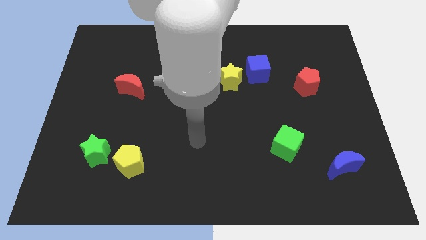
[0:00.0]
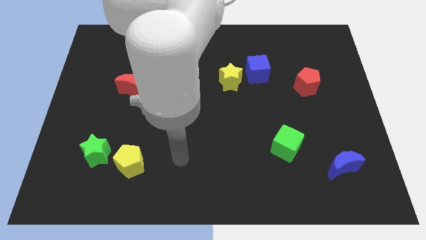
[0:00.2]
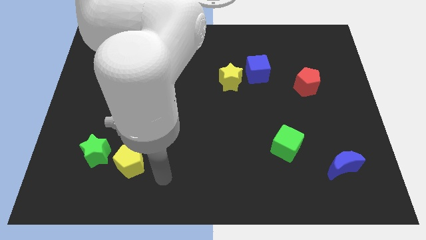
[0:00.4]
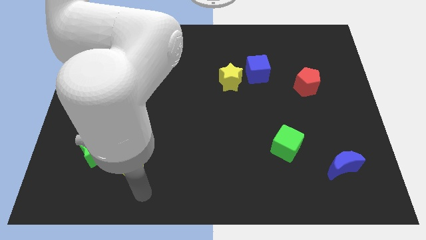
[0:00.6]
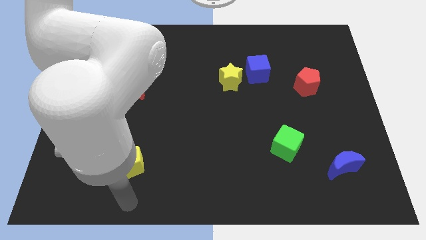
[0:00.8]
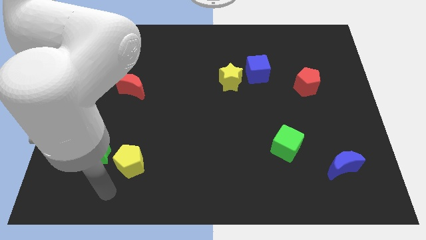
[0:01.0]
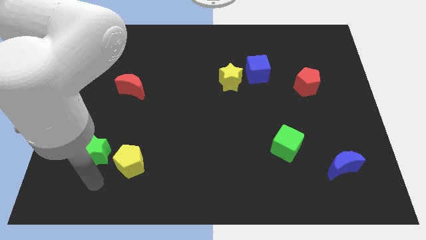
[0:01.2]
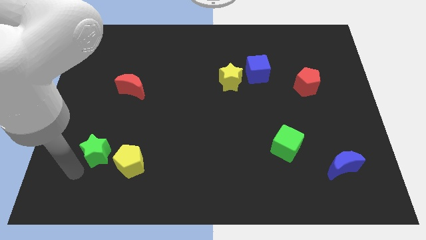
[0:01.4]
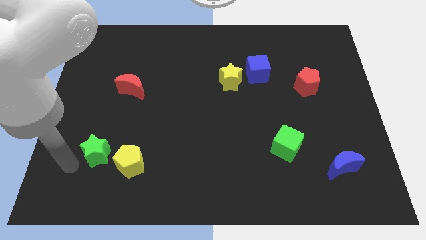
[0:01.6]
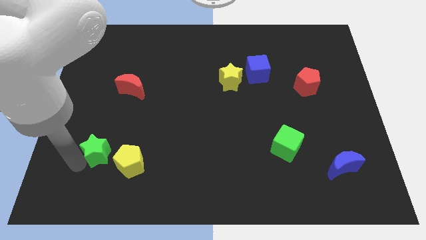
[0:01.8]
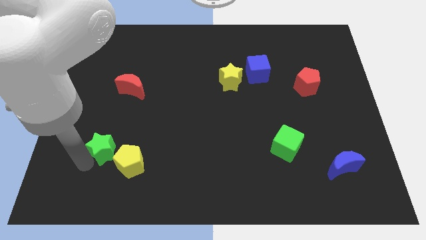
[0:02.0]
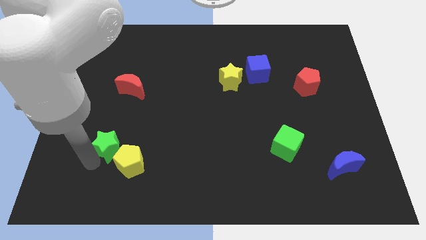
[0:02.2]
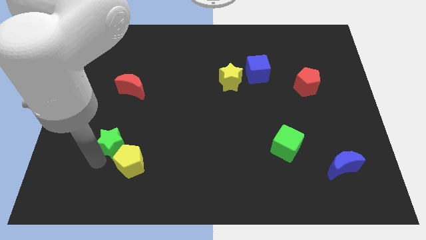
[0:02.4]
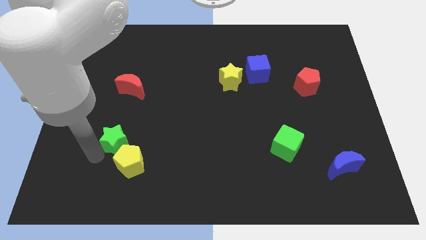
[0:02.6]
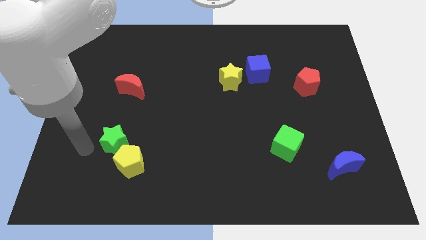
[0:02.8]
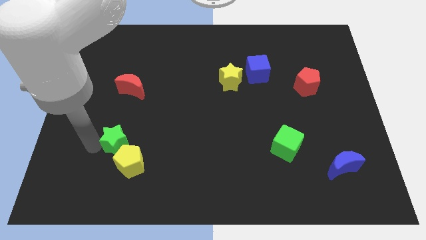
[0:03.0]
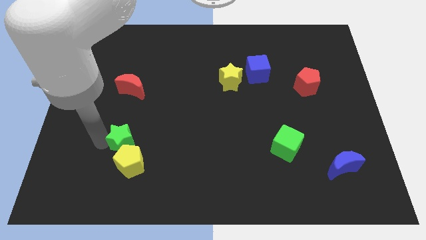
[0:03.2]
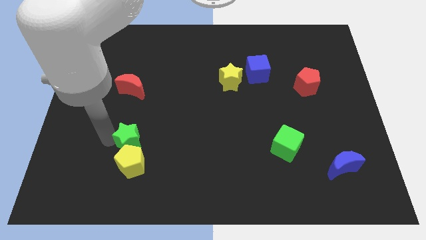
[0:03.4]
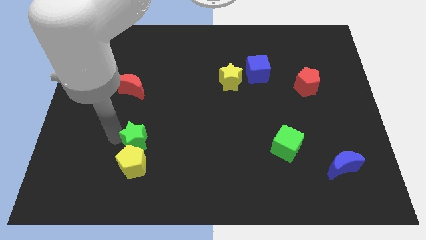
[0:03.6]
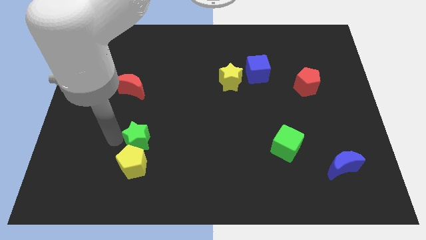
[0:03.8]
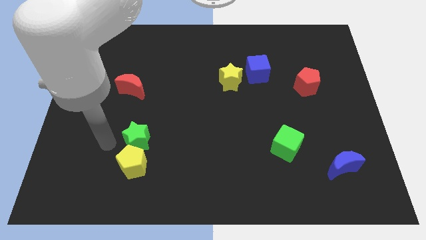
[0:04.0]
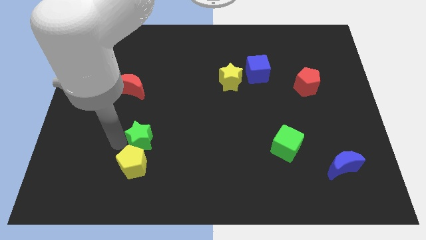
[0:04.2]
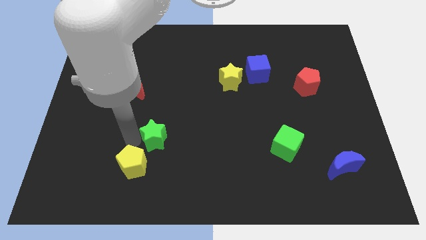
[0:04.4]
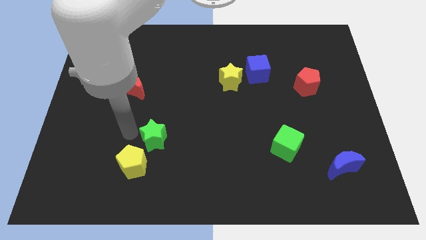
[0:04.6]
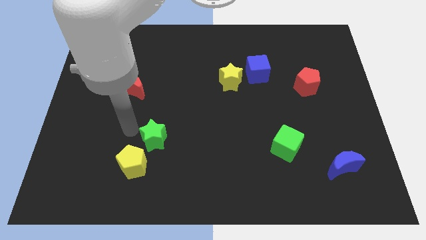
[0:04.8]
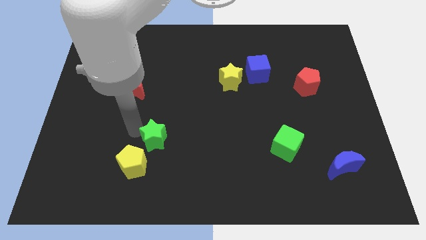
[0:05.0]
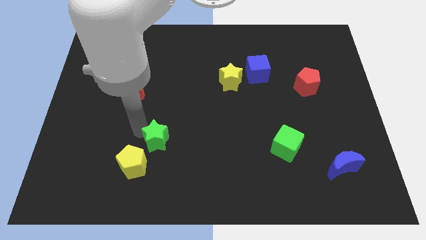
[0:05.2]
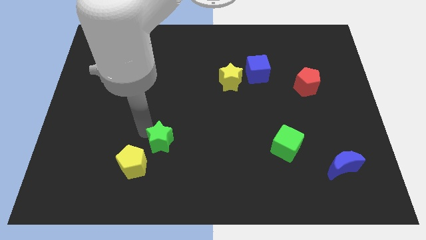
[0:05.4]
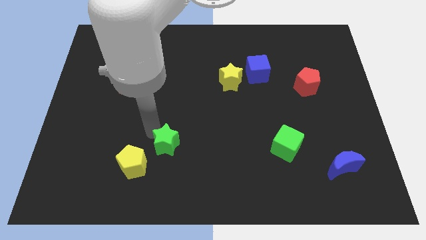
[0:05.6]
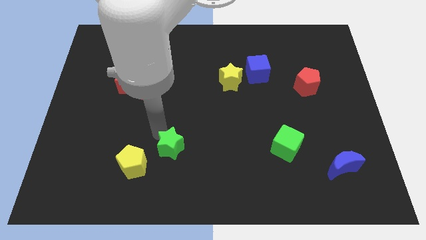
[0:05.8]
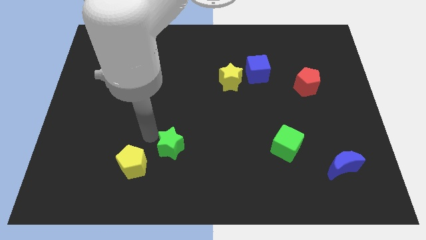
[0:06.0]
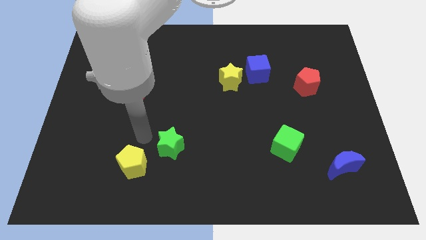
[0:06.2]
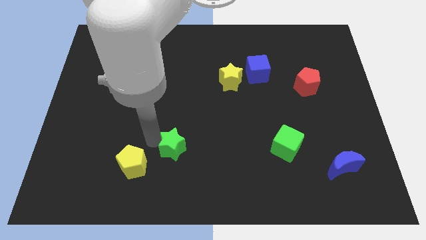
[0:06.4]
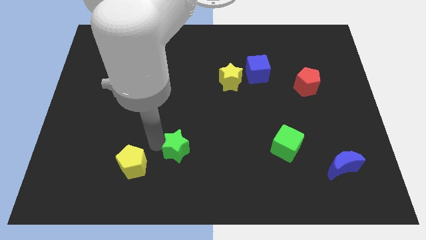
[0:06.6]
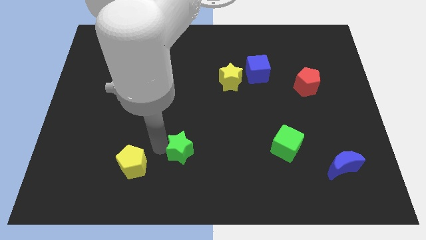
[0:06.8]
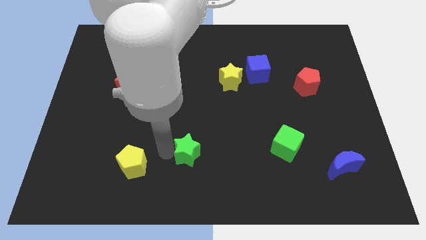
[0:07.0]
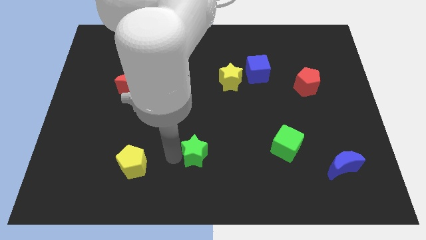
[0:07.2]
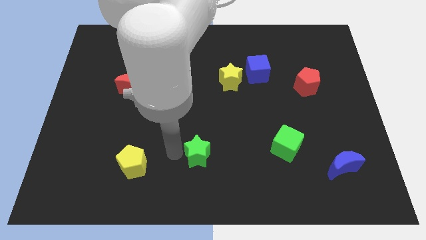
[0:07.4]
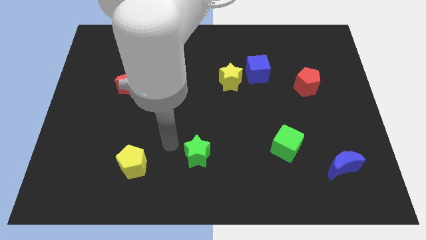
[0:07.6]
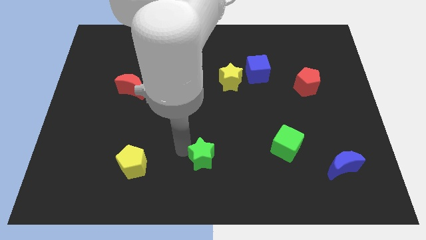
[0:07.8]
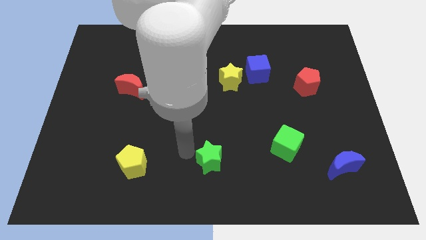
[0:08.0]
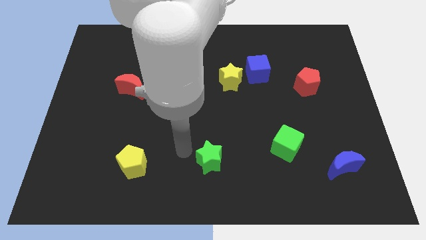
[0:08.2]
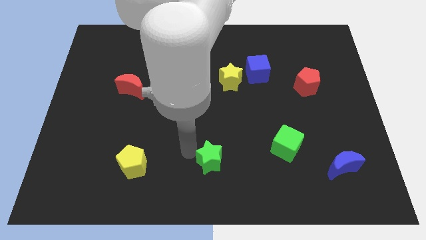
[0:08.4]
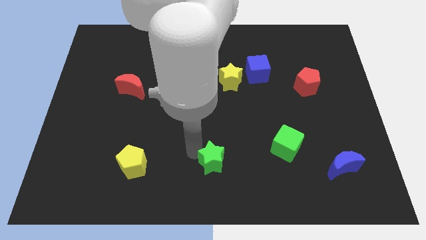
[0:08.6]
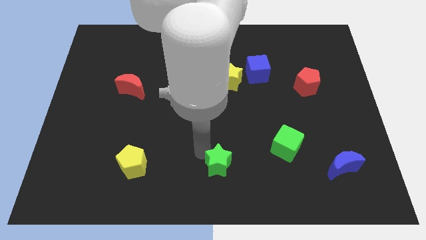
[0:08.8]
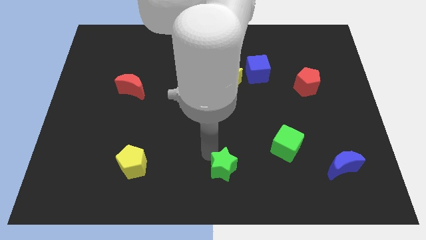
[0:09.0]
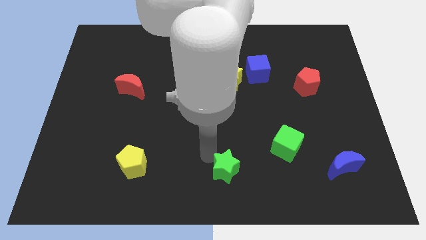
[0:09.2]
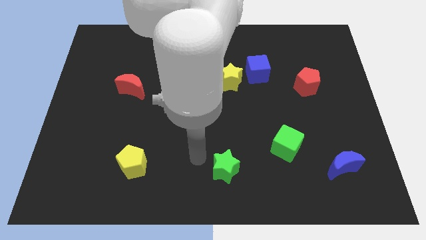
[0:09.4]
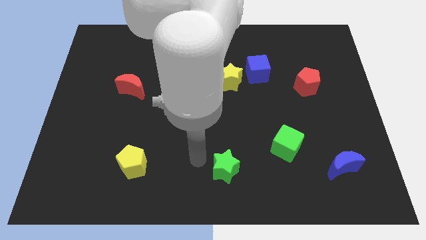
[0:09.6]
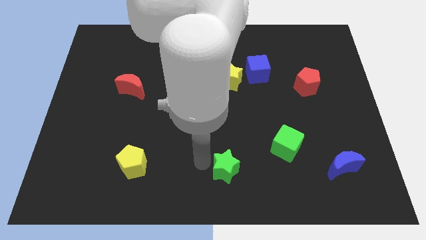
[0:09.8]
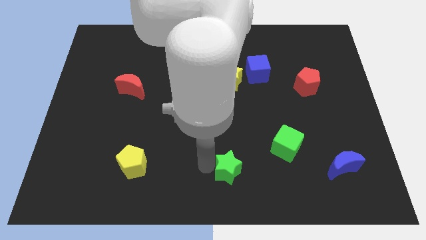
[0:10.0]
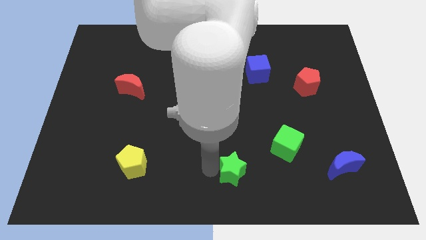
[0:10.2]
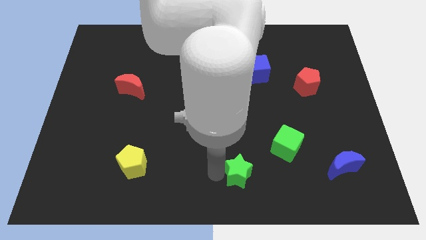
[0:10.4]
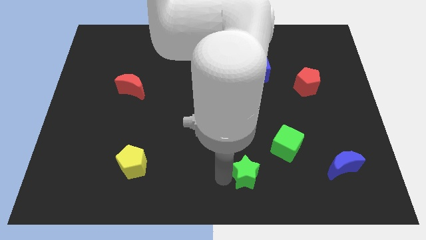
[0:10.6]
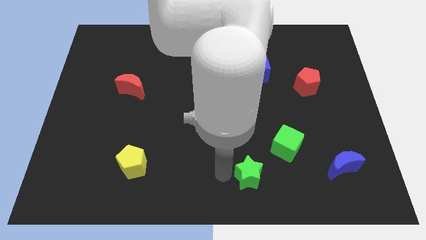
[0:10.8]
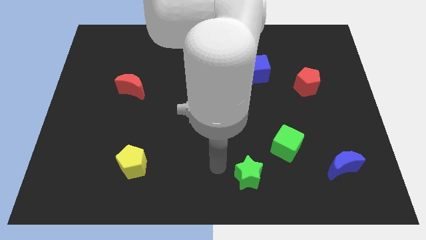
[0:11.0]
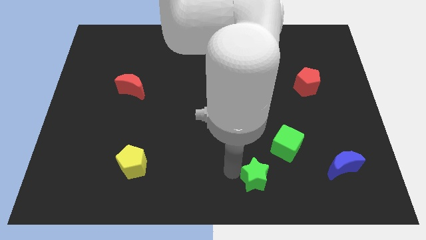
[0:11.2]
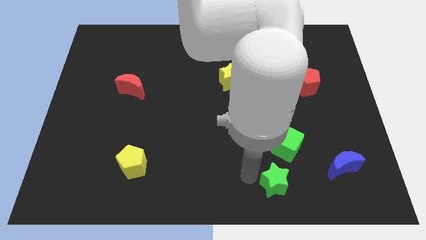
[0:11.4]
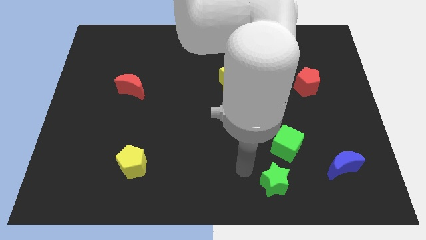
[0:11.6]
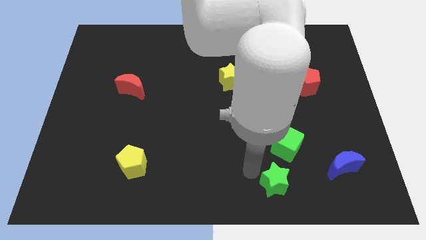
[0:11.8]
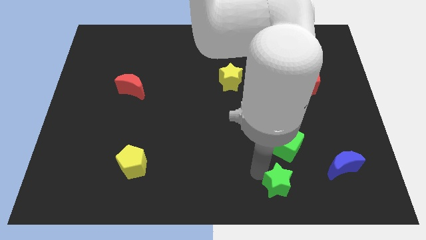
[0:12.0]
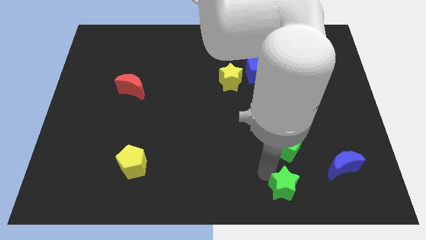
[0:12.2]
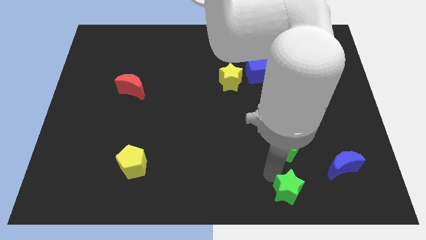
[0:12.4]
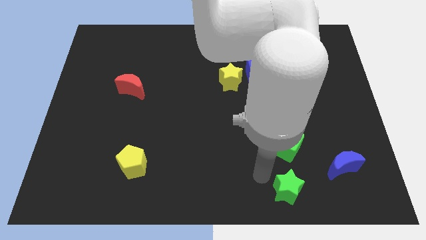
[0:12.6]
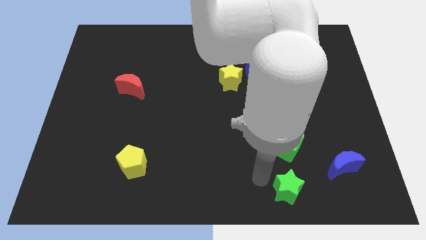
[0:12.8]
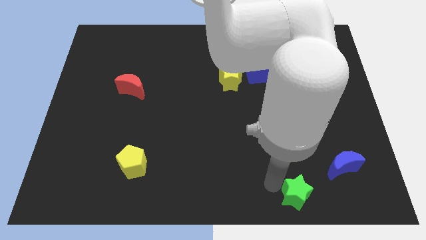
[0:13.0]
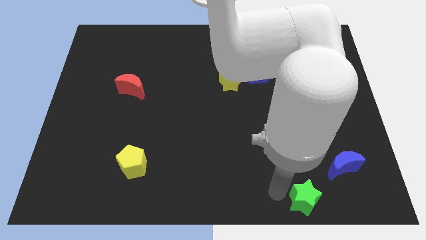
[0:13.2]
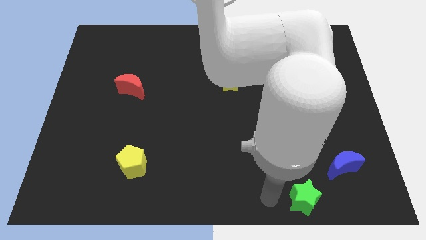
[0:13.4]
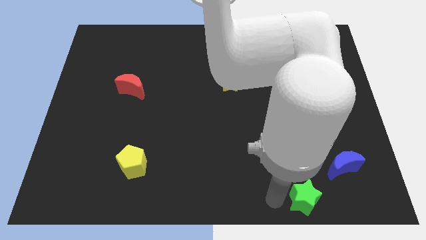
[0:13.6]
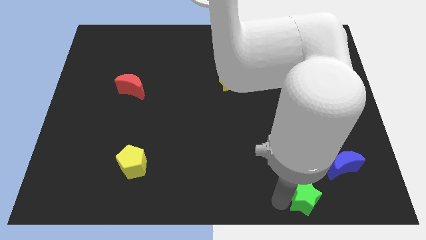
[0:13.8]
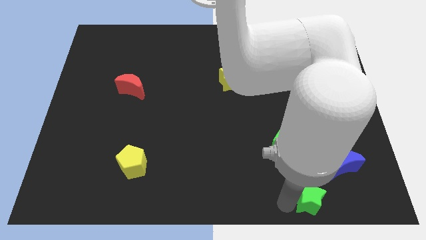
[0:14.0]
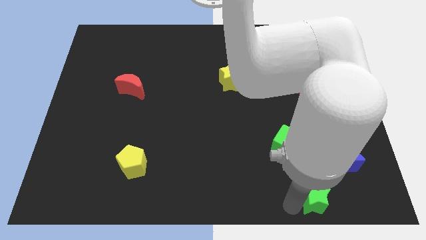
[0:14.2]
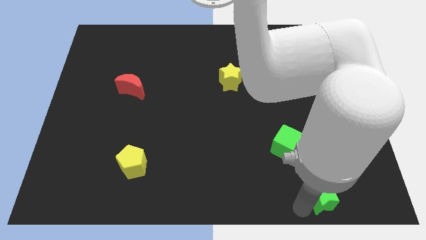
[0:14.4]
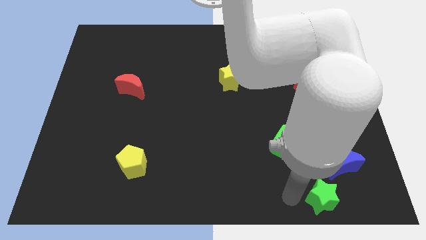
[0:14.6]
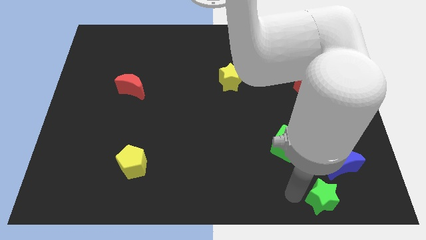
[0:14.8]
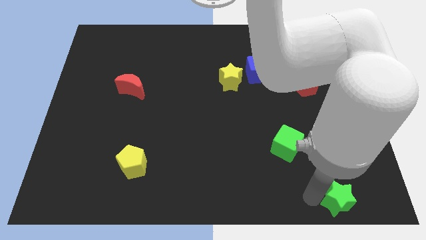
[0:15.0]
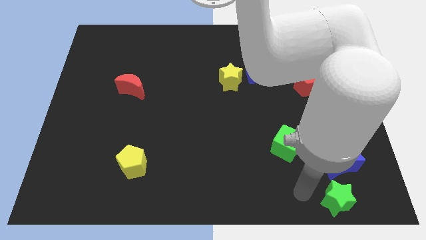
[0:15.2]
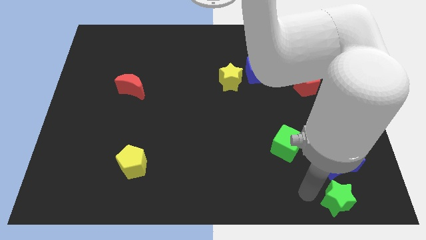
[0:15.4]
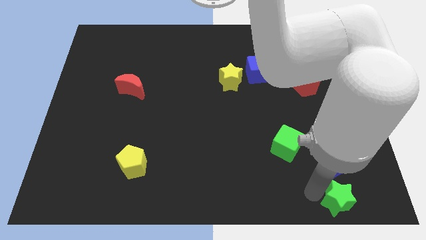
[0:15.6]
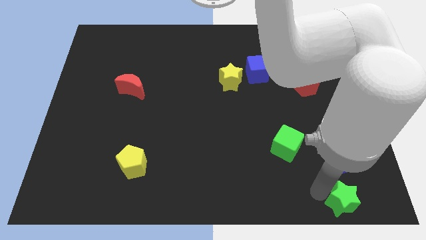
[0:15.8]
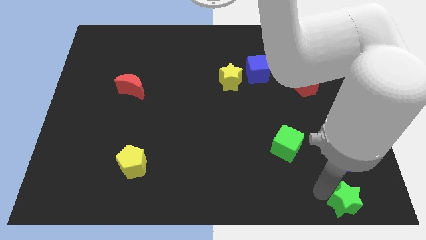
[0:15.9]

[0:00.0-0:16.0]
put the green star to the bottom right
